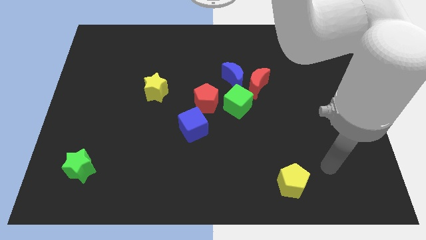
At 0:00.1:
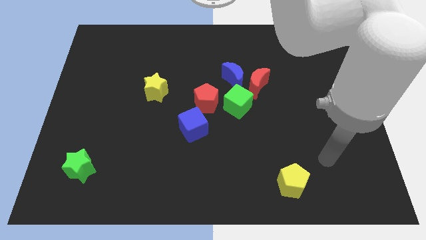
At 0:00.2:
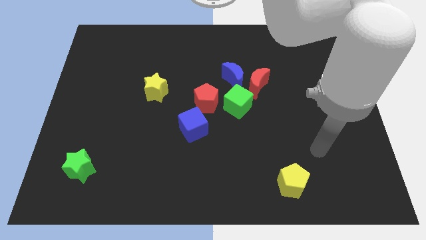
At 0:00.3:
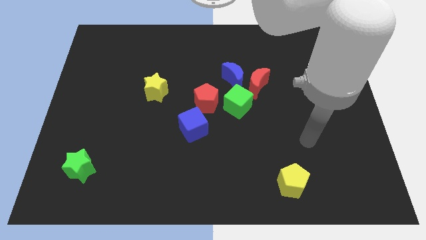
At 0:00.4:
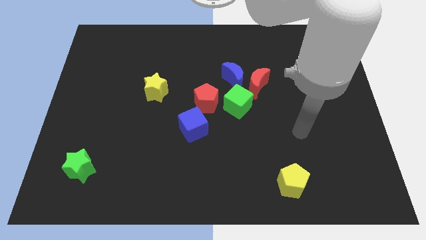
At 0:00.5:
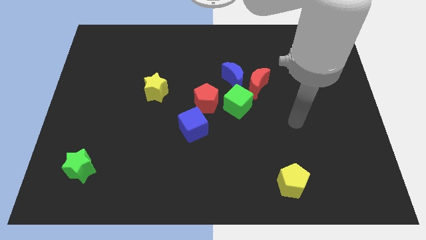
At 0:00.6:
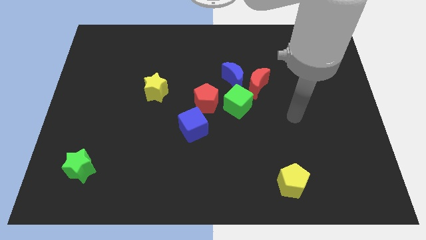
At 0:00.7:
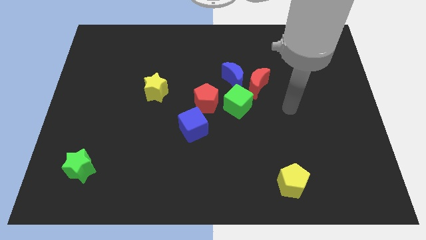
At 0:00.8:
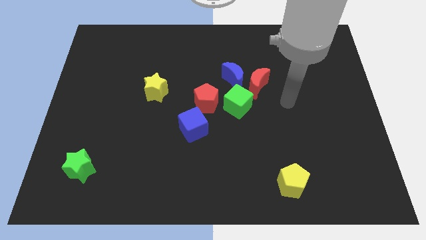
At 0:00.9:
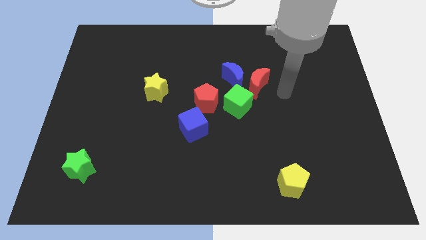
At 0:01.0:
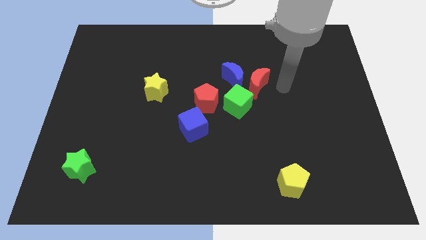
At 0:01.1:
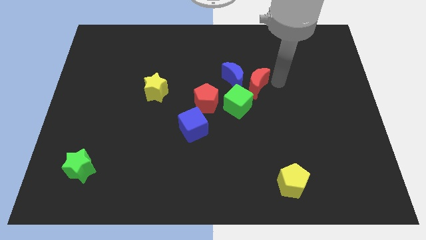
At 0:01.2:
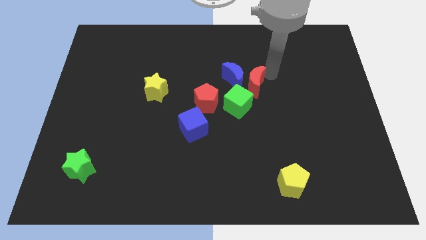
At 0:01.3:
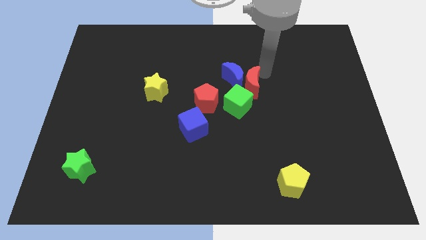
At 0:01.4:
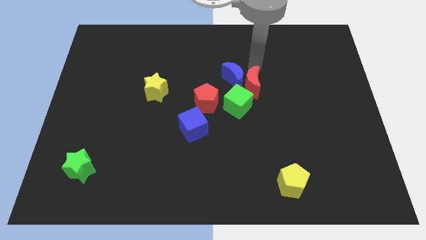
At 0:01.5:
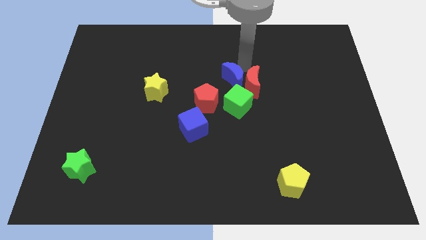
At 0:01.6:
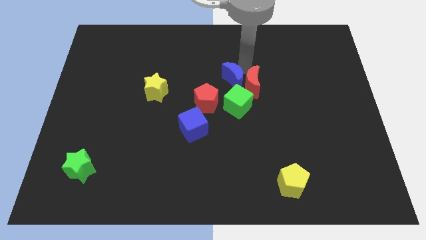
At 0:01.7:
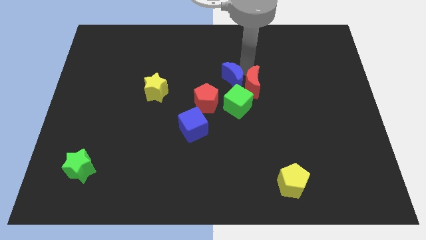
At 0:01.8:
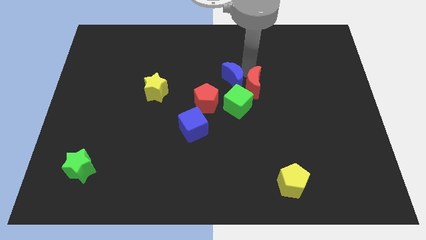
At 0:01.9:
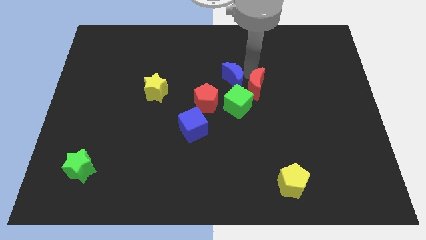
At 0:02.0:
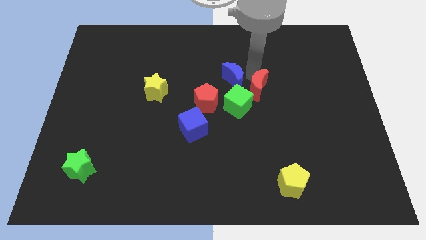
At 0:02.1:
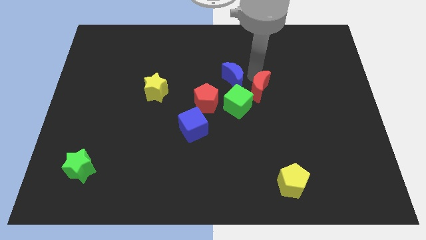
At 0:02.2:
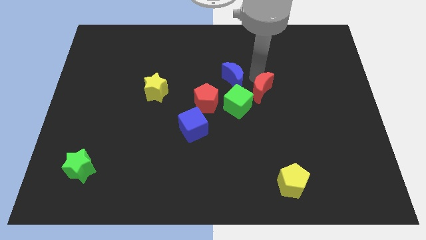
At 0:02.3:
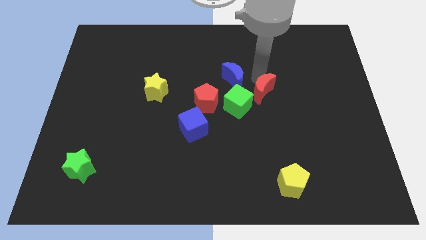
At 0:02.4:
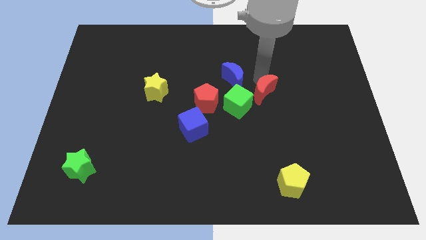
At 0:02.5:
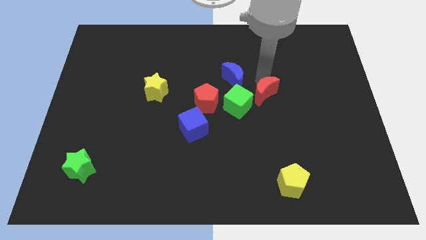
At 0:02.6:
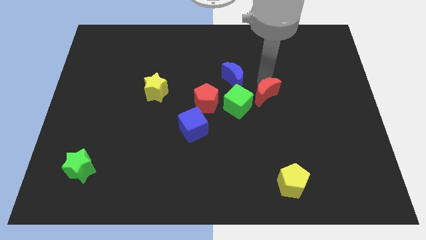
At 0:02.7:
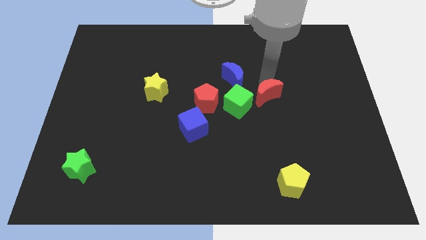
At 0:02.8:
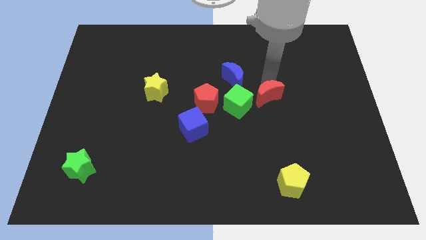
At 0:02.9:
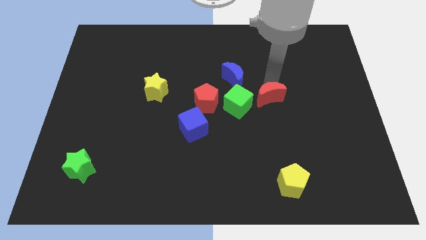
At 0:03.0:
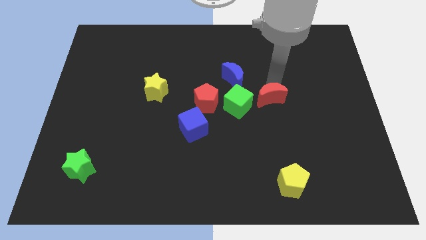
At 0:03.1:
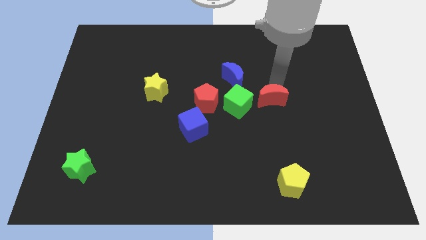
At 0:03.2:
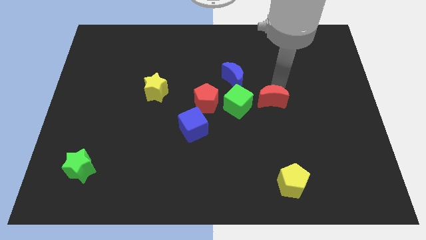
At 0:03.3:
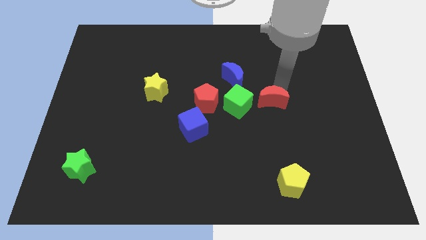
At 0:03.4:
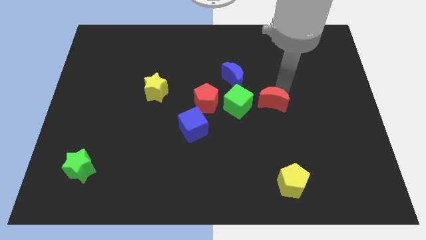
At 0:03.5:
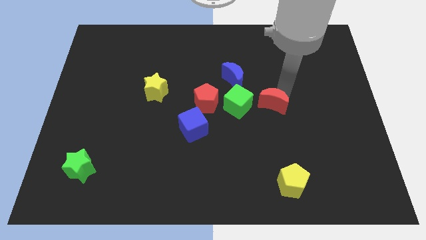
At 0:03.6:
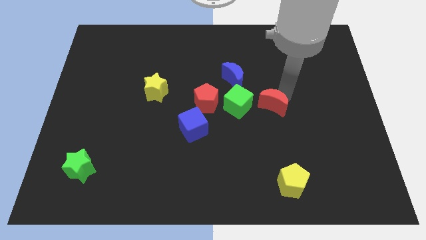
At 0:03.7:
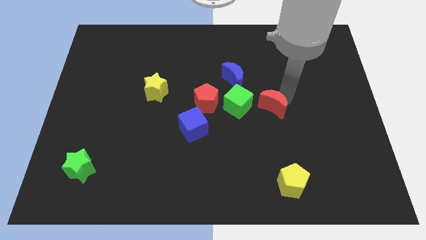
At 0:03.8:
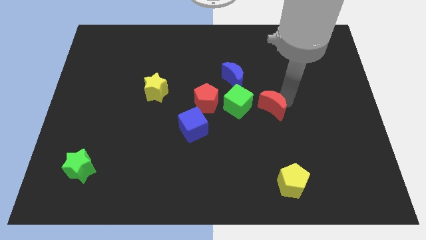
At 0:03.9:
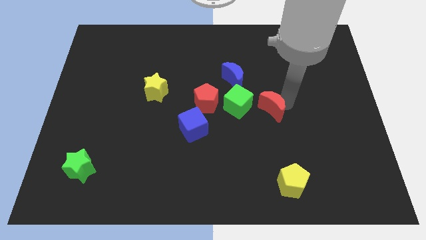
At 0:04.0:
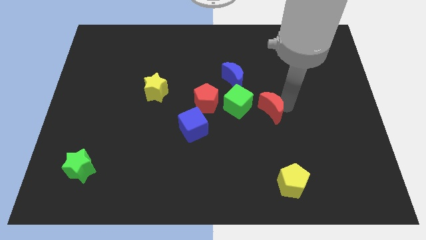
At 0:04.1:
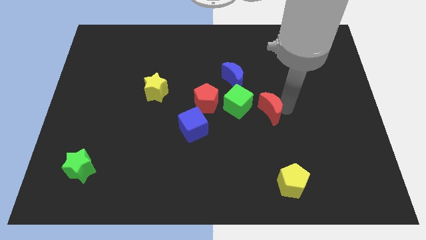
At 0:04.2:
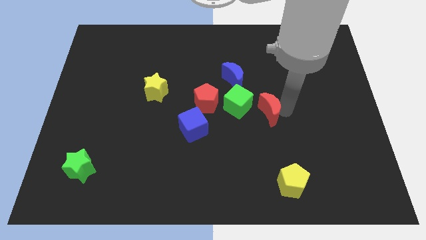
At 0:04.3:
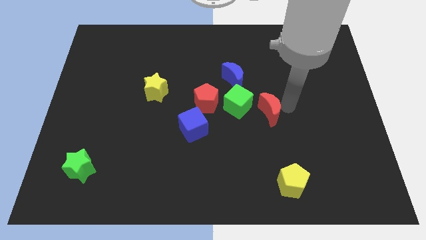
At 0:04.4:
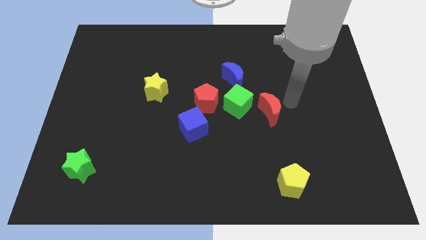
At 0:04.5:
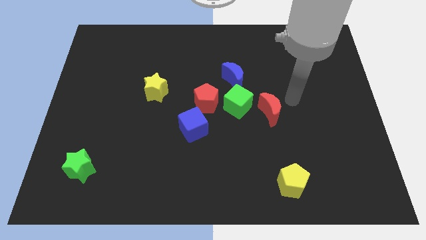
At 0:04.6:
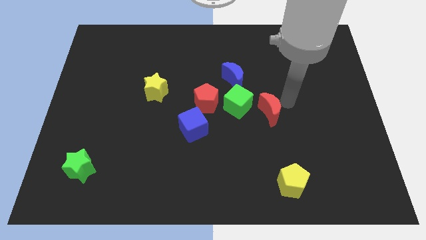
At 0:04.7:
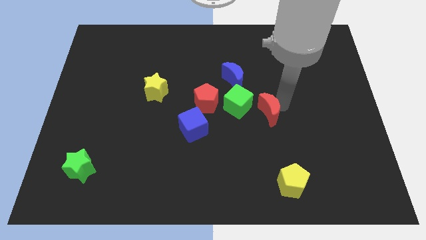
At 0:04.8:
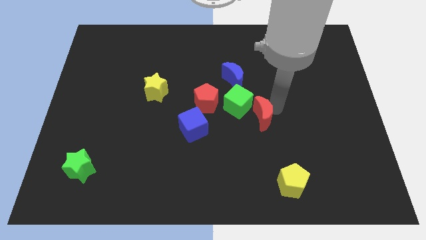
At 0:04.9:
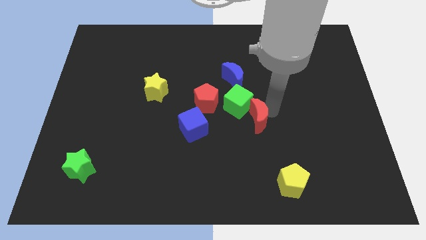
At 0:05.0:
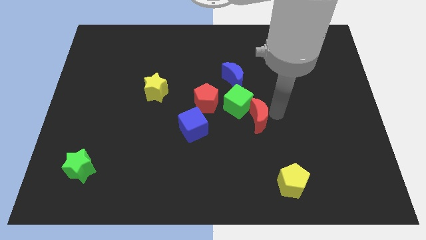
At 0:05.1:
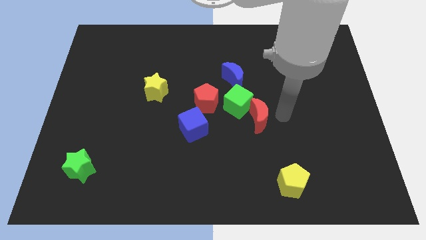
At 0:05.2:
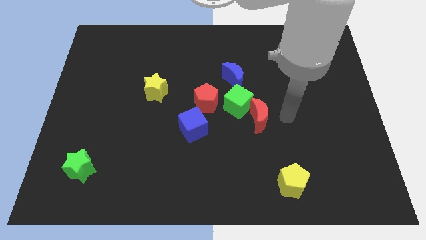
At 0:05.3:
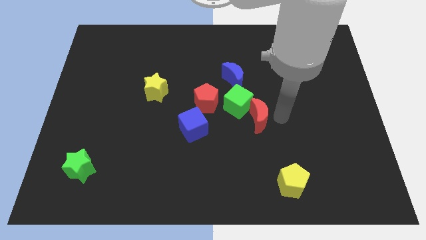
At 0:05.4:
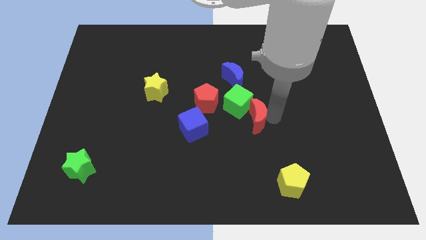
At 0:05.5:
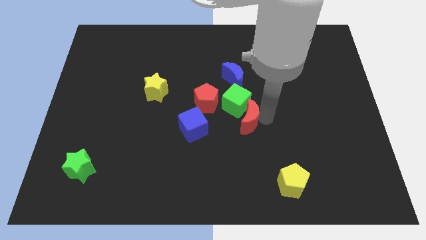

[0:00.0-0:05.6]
put the red moon to the bottom right side of the red pentagon

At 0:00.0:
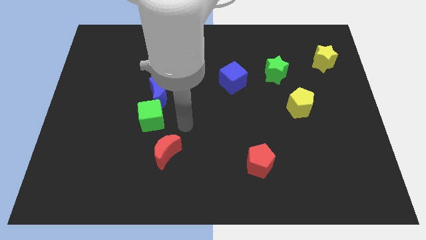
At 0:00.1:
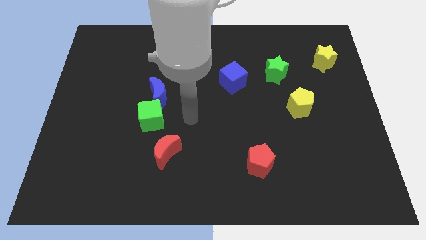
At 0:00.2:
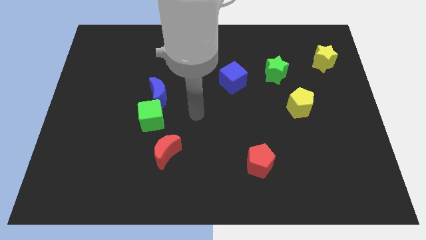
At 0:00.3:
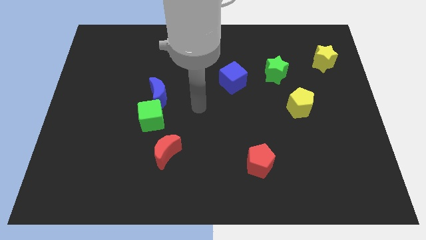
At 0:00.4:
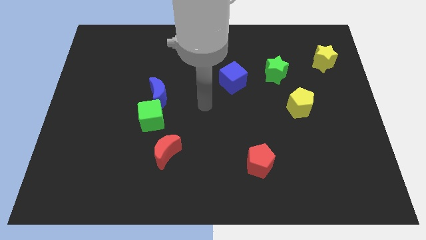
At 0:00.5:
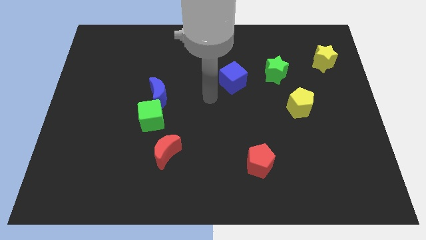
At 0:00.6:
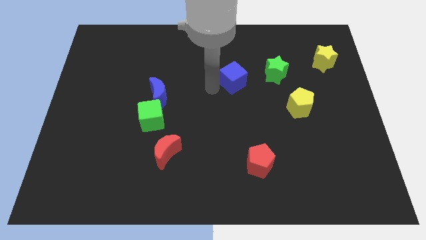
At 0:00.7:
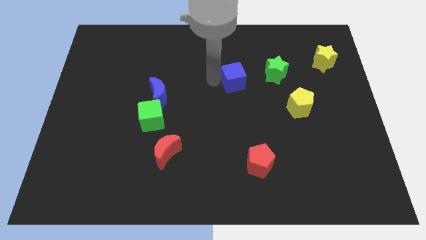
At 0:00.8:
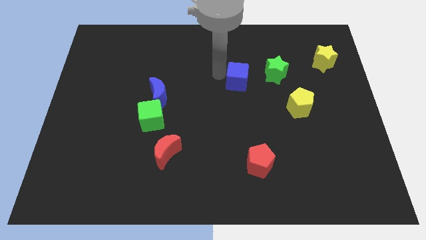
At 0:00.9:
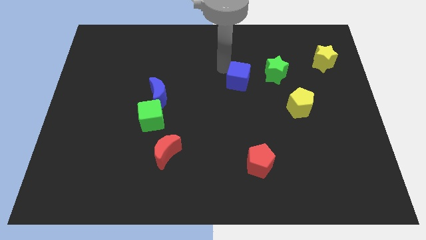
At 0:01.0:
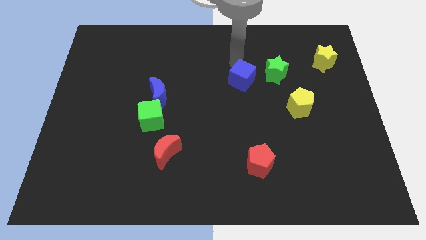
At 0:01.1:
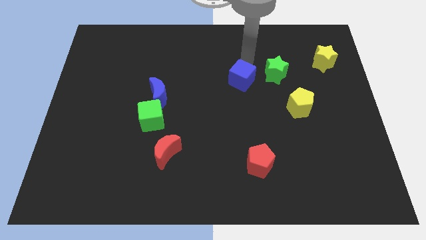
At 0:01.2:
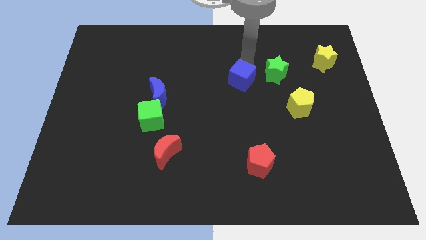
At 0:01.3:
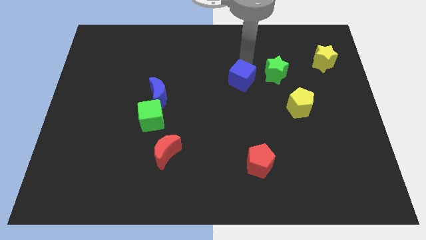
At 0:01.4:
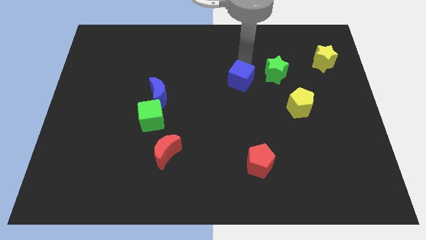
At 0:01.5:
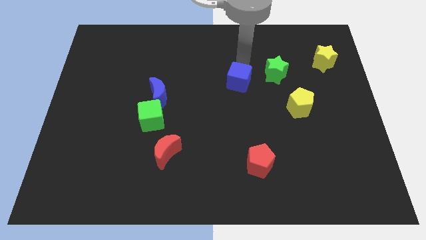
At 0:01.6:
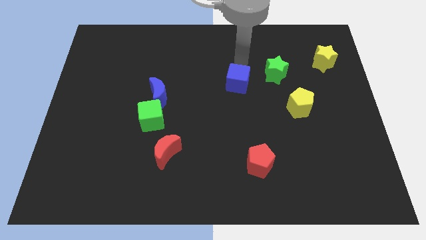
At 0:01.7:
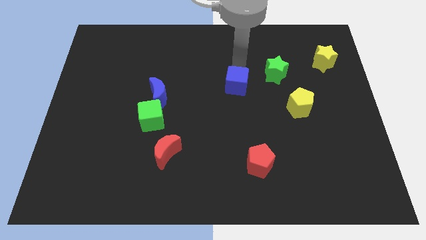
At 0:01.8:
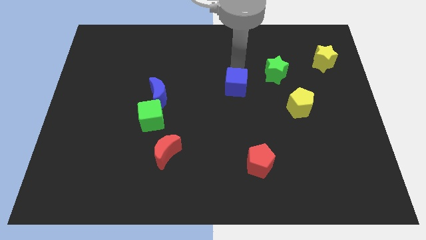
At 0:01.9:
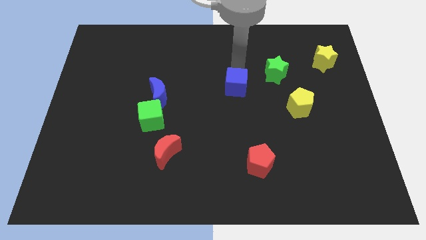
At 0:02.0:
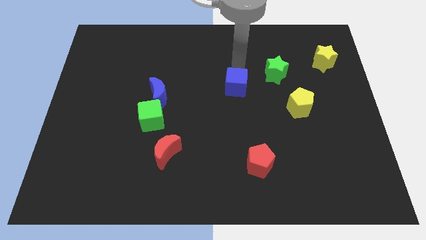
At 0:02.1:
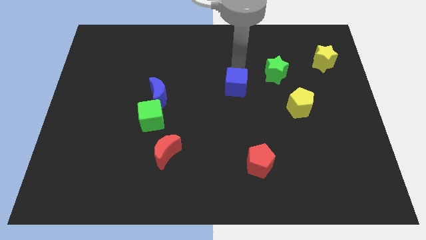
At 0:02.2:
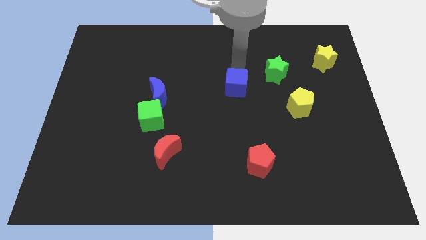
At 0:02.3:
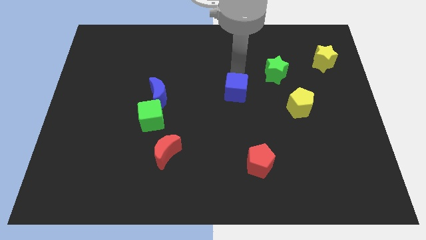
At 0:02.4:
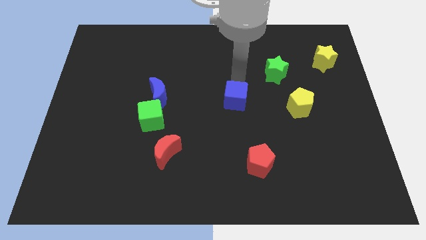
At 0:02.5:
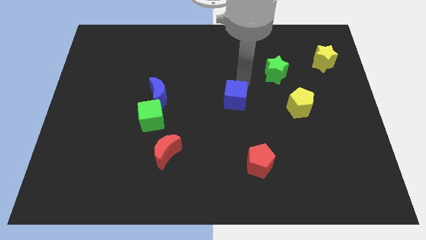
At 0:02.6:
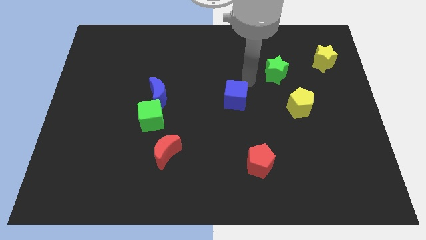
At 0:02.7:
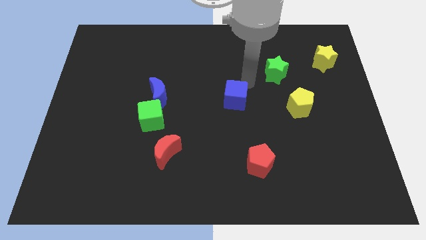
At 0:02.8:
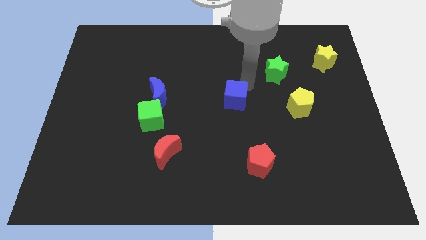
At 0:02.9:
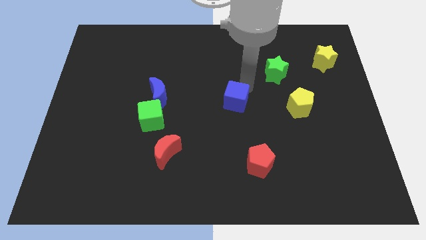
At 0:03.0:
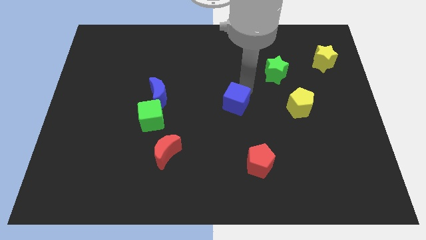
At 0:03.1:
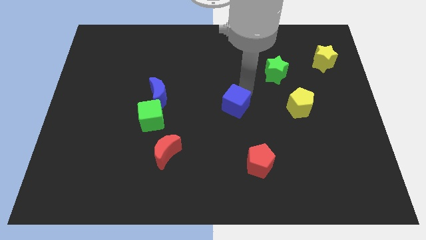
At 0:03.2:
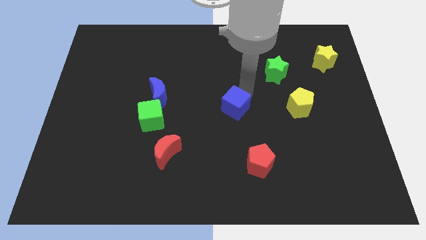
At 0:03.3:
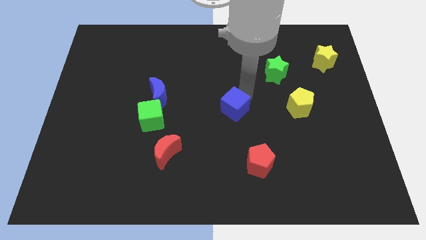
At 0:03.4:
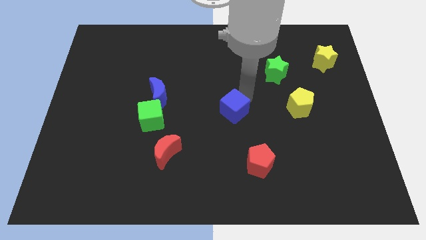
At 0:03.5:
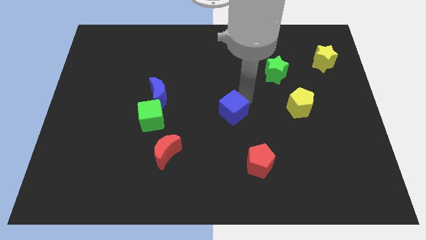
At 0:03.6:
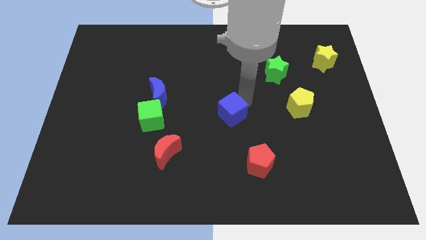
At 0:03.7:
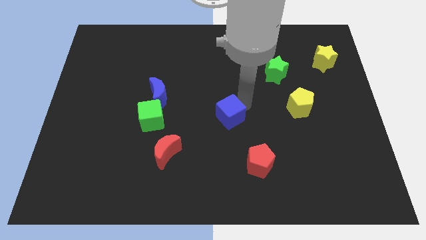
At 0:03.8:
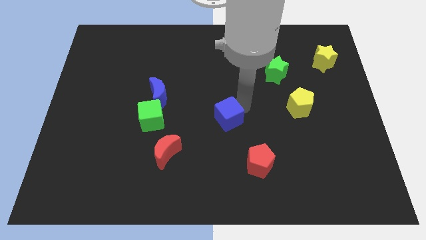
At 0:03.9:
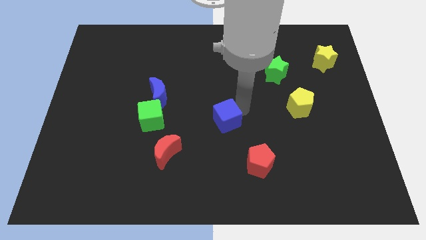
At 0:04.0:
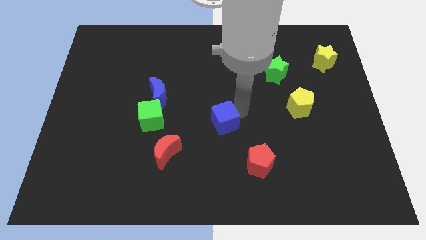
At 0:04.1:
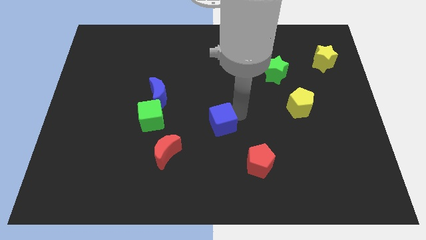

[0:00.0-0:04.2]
put the blue cube to the top left side of the red pentagon
